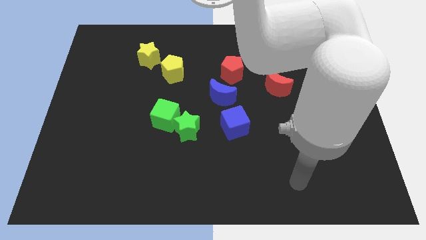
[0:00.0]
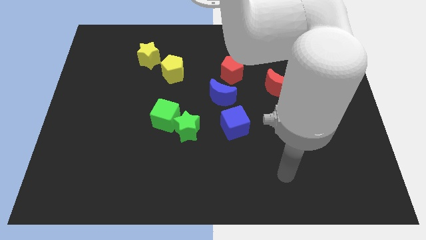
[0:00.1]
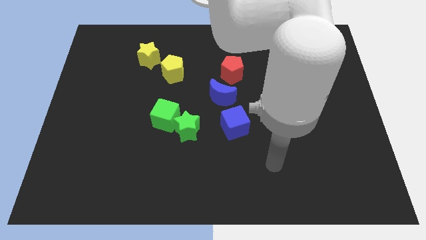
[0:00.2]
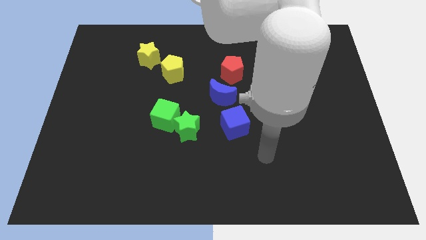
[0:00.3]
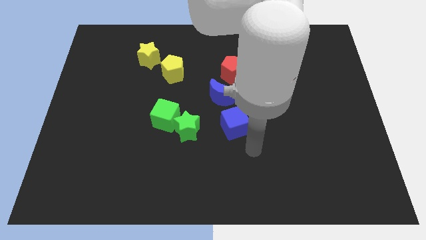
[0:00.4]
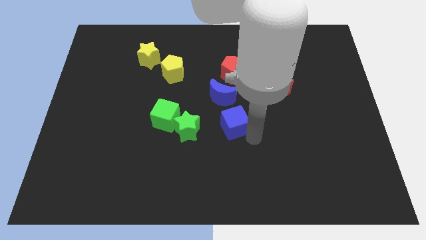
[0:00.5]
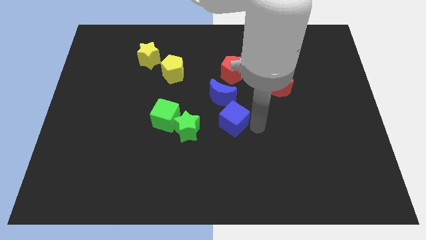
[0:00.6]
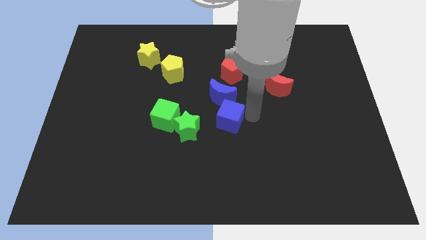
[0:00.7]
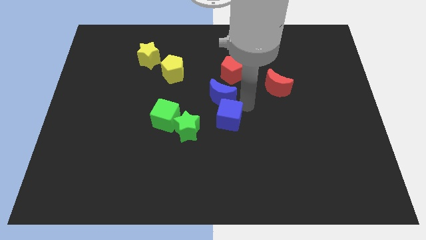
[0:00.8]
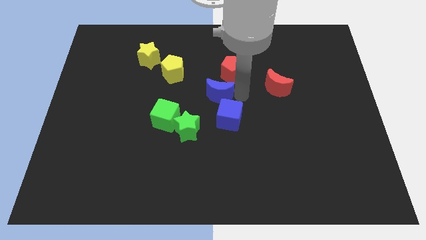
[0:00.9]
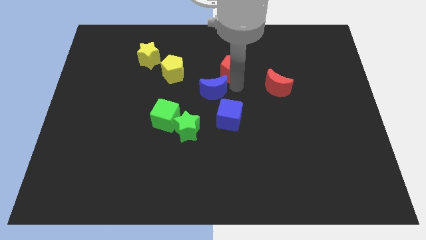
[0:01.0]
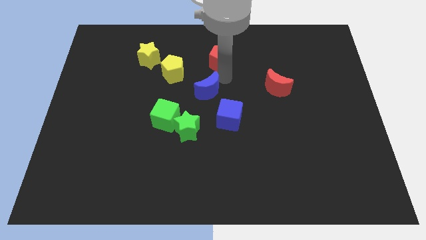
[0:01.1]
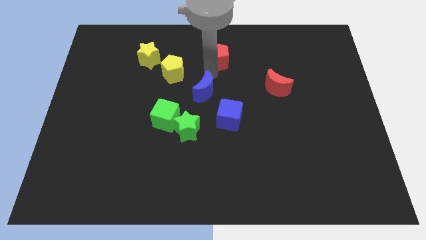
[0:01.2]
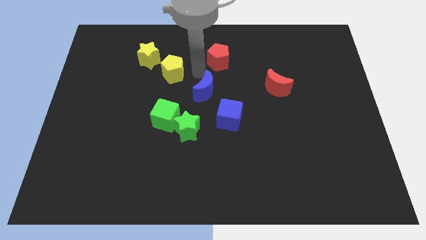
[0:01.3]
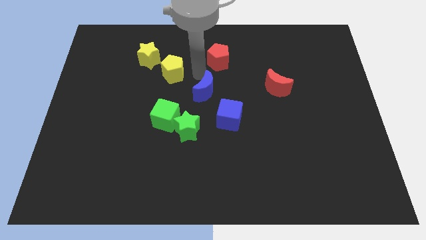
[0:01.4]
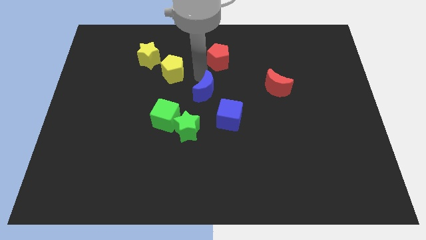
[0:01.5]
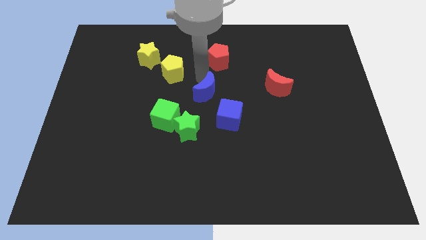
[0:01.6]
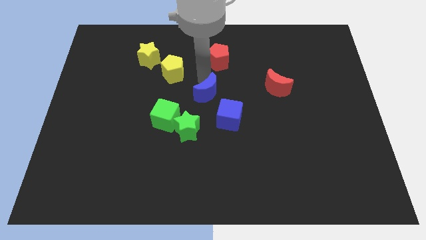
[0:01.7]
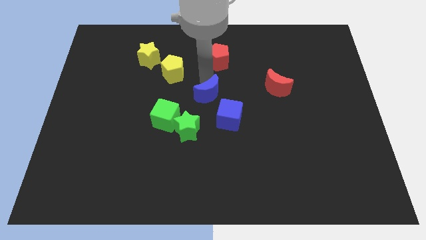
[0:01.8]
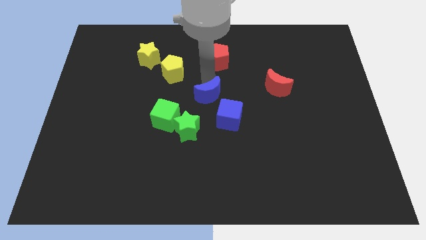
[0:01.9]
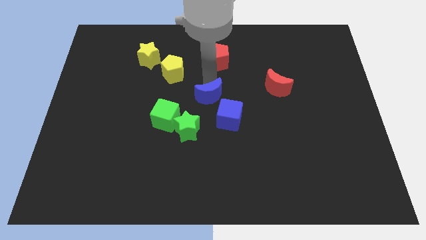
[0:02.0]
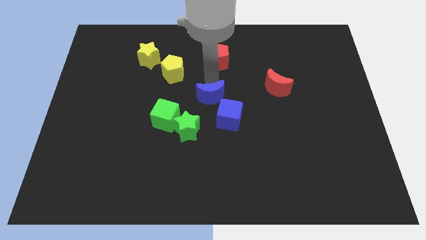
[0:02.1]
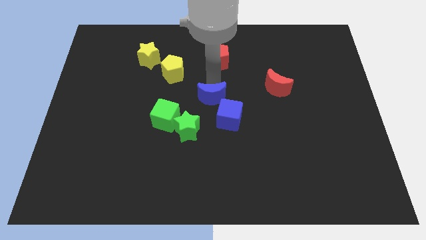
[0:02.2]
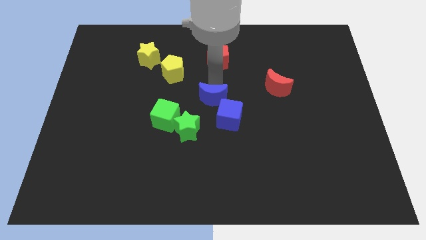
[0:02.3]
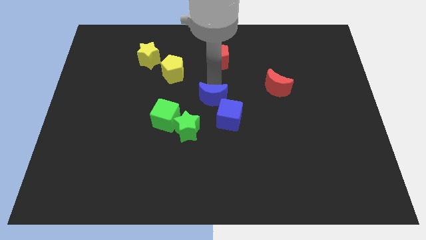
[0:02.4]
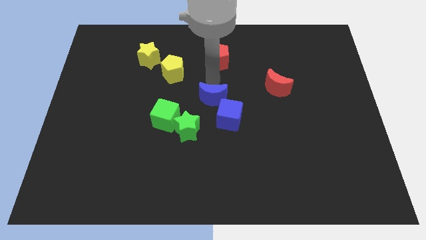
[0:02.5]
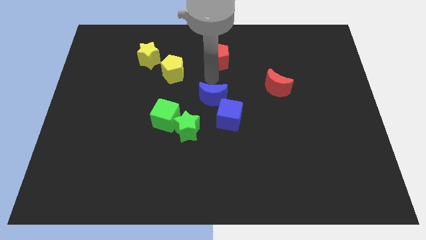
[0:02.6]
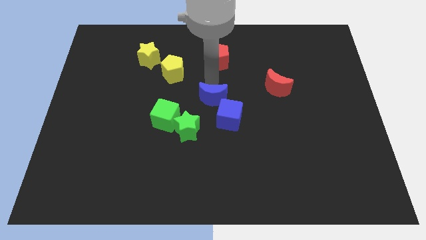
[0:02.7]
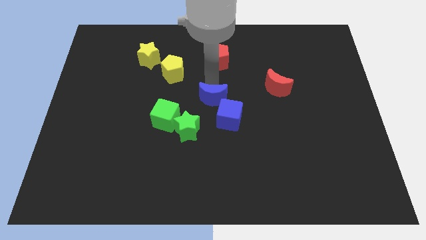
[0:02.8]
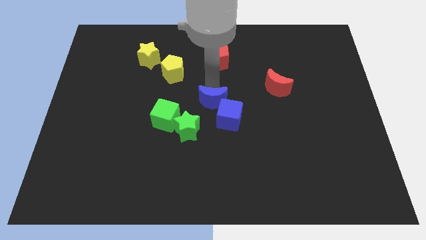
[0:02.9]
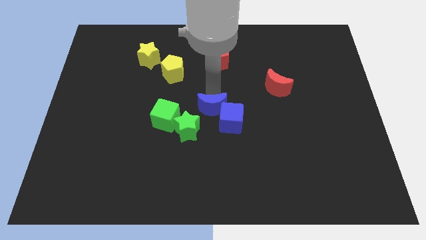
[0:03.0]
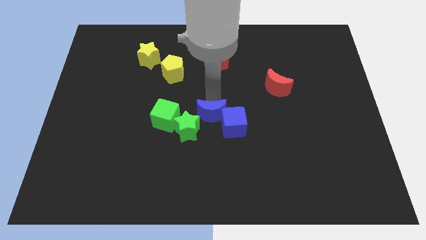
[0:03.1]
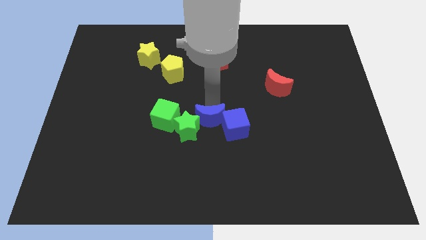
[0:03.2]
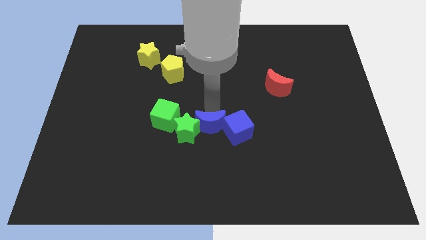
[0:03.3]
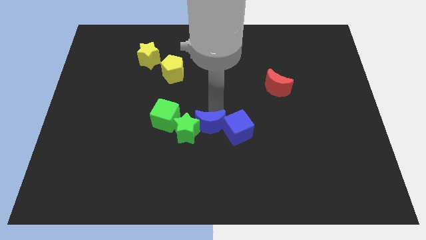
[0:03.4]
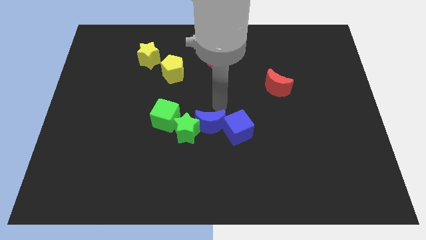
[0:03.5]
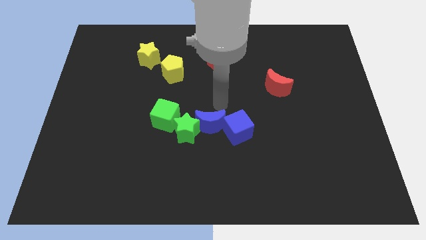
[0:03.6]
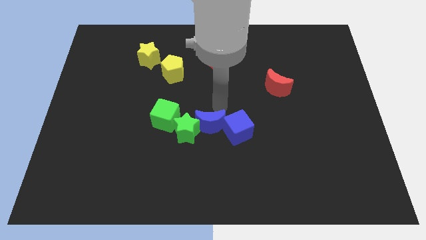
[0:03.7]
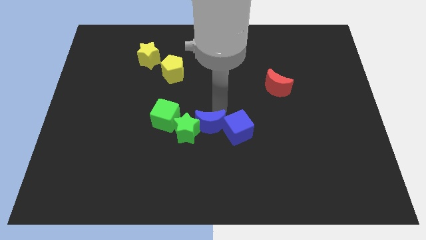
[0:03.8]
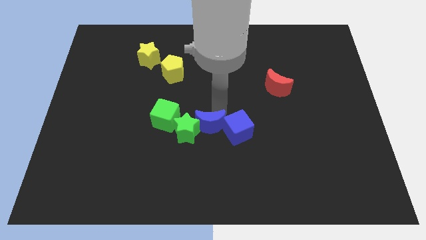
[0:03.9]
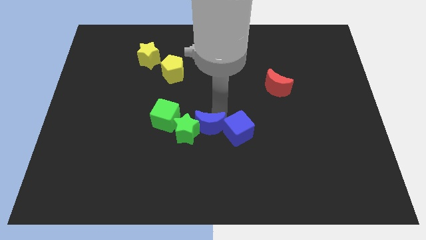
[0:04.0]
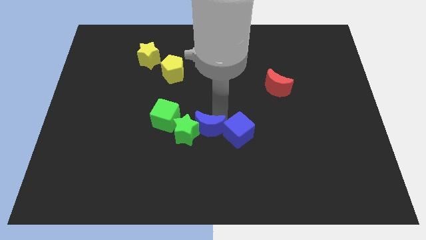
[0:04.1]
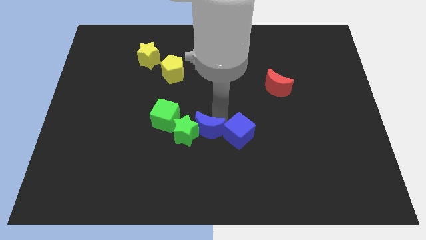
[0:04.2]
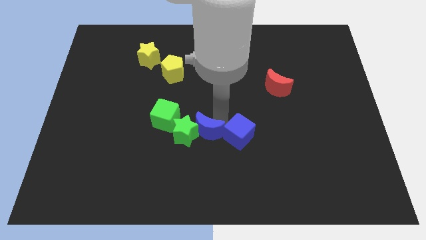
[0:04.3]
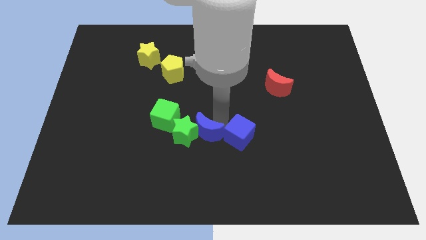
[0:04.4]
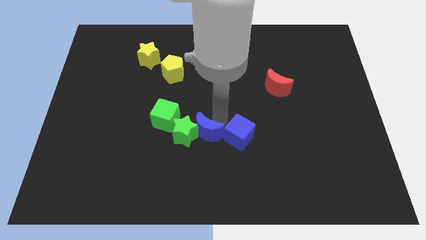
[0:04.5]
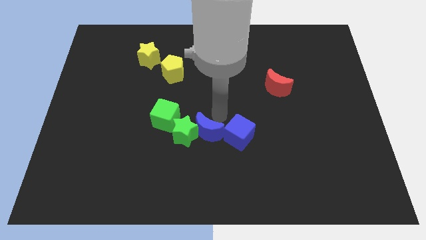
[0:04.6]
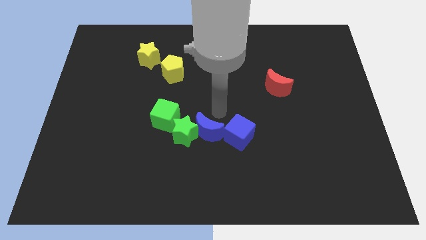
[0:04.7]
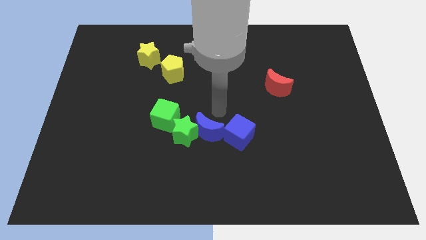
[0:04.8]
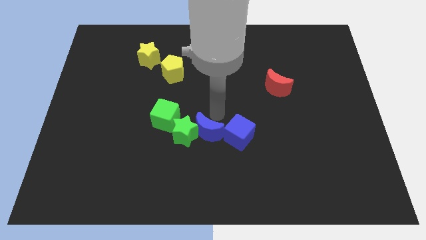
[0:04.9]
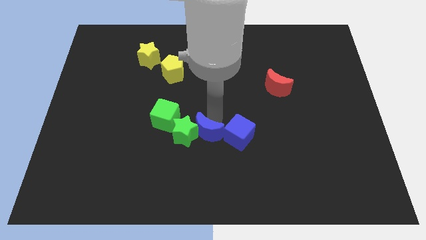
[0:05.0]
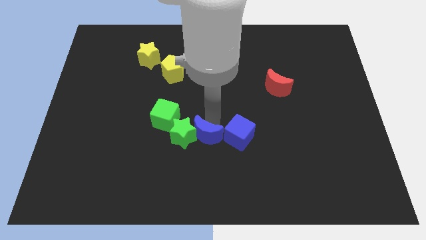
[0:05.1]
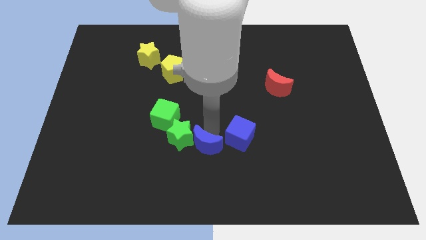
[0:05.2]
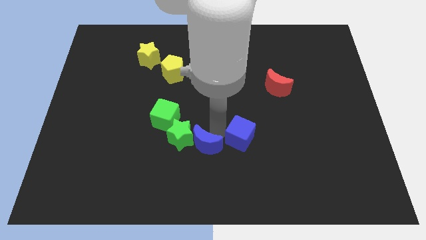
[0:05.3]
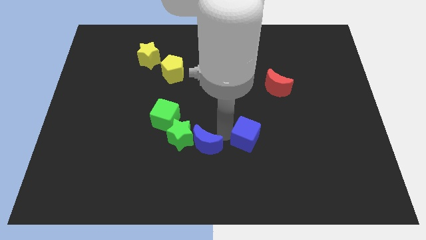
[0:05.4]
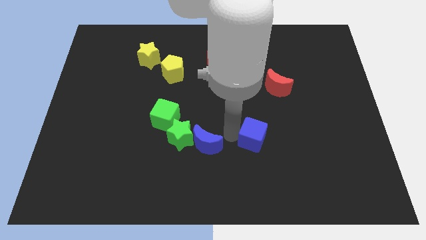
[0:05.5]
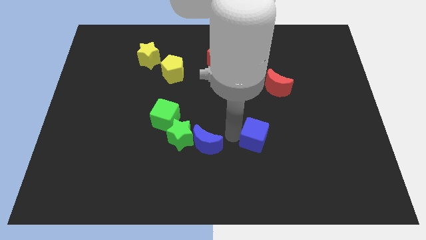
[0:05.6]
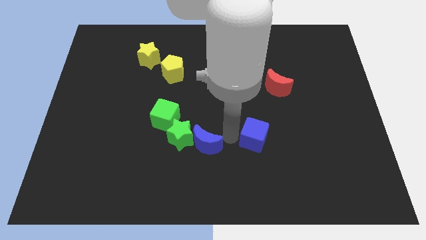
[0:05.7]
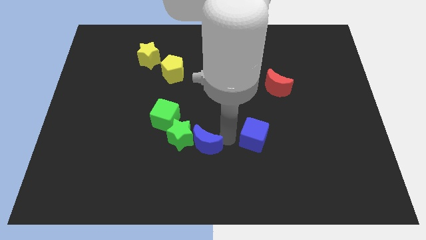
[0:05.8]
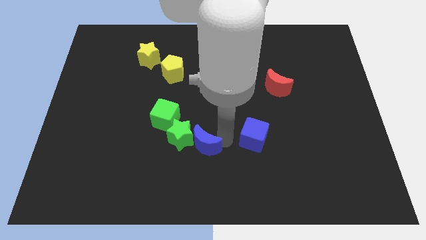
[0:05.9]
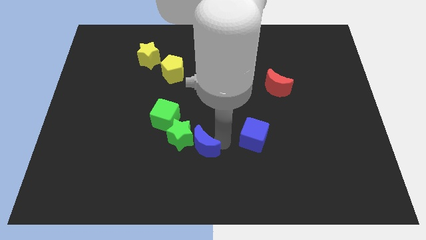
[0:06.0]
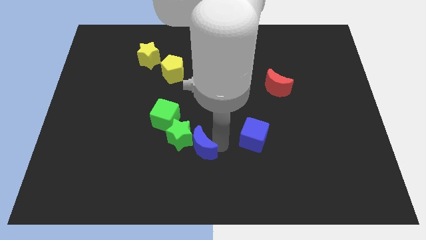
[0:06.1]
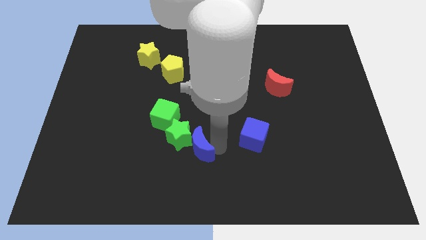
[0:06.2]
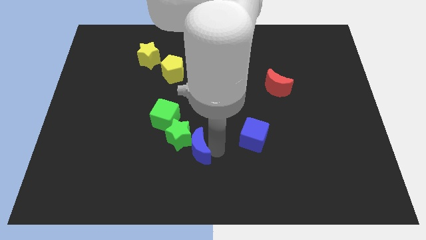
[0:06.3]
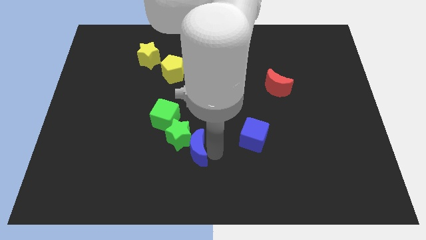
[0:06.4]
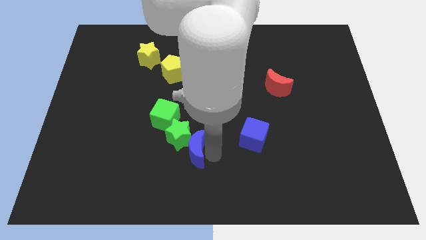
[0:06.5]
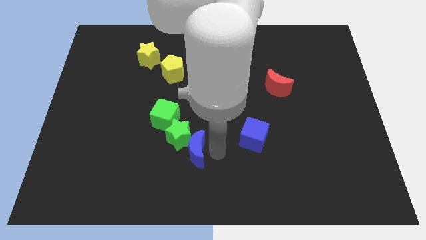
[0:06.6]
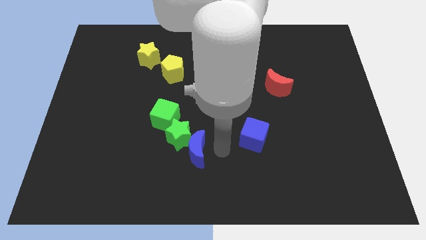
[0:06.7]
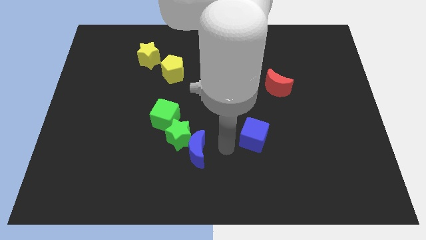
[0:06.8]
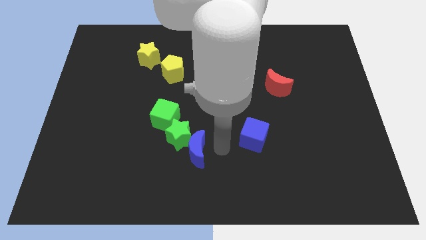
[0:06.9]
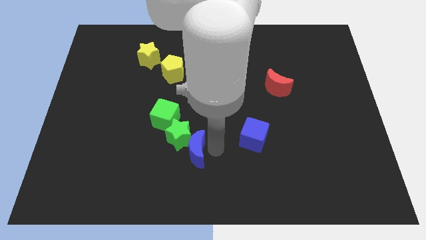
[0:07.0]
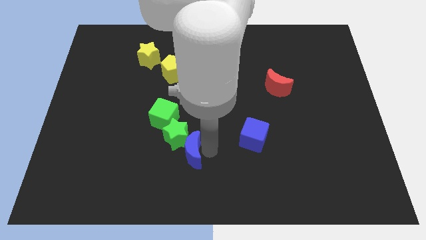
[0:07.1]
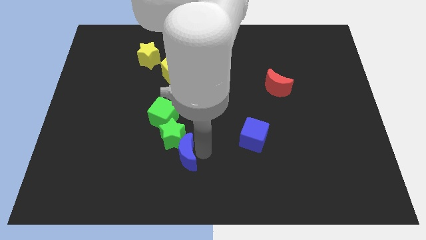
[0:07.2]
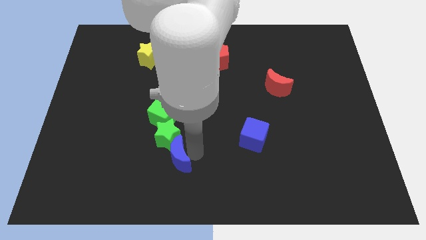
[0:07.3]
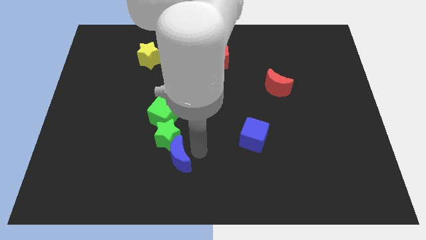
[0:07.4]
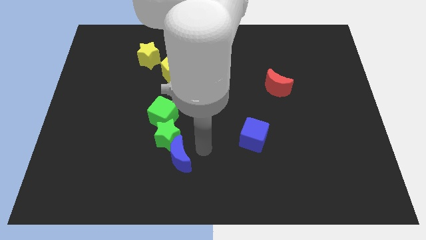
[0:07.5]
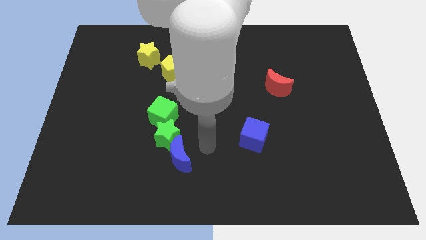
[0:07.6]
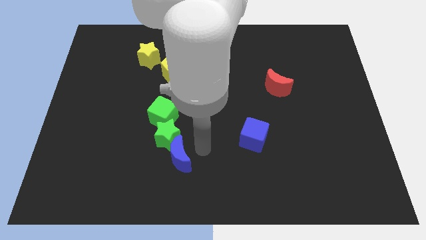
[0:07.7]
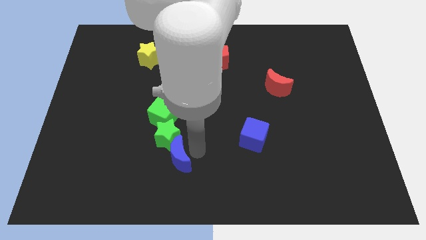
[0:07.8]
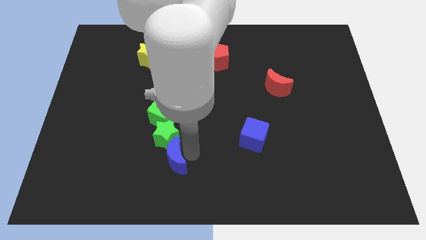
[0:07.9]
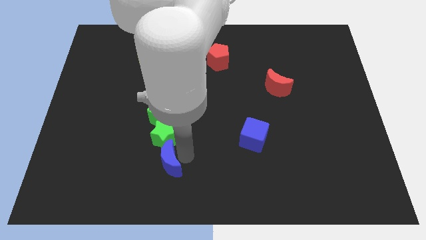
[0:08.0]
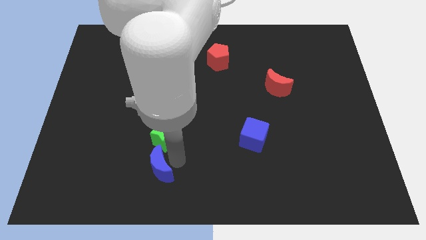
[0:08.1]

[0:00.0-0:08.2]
push the blue moon diagonally downwards and left
